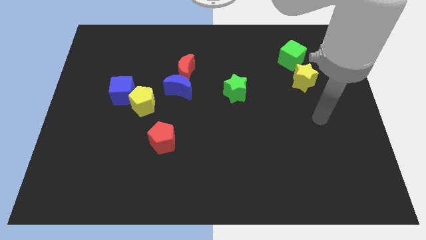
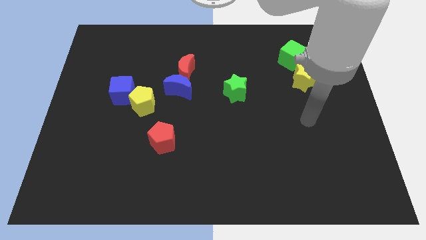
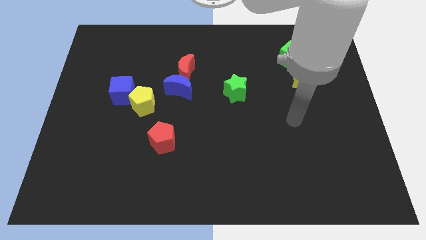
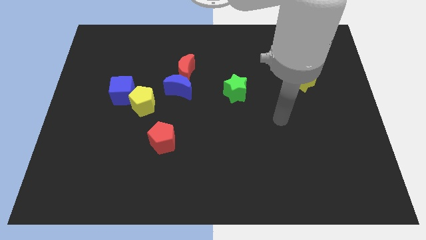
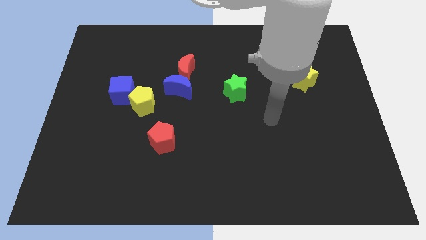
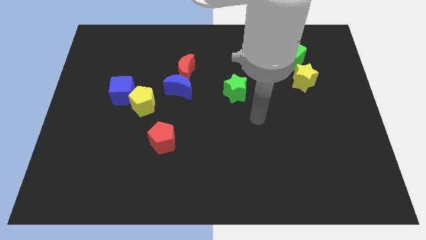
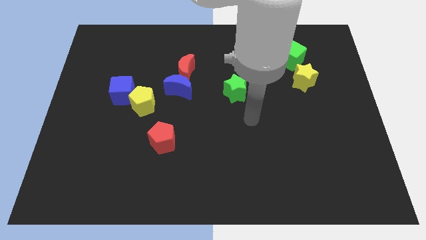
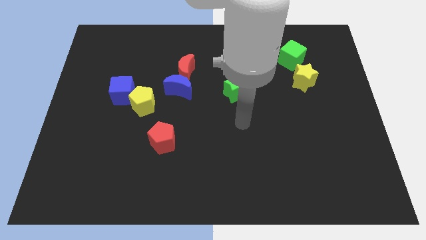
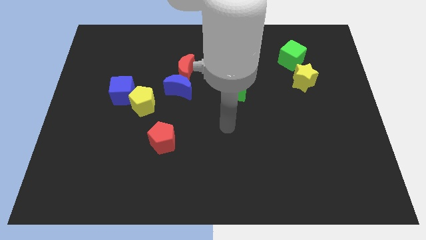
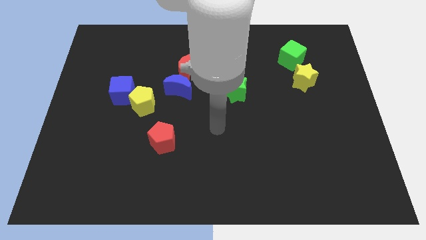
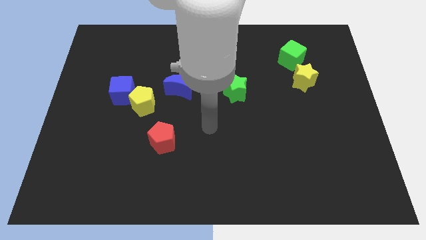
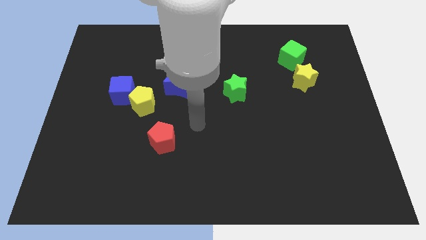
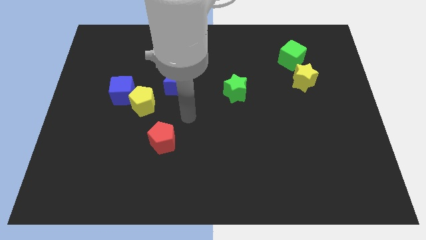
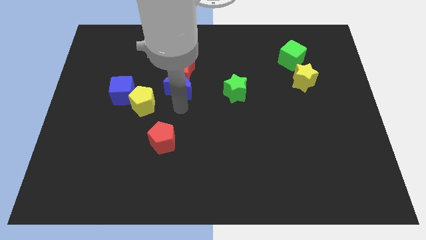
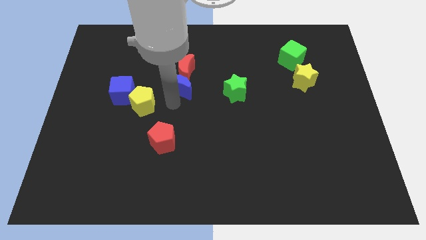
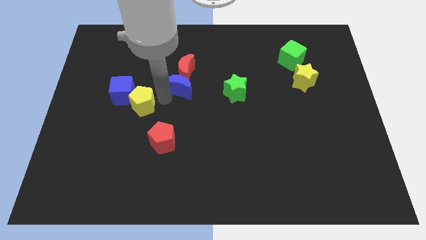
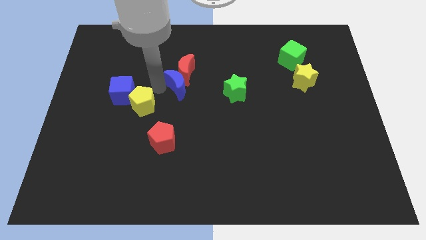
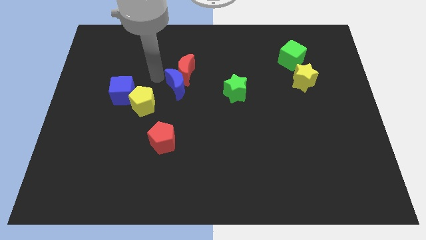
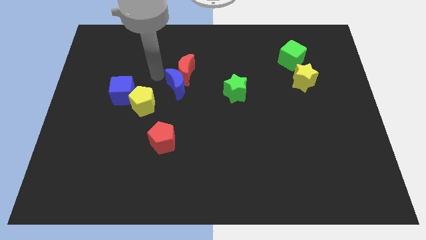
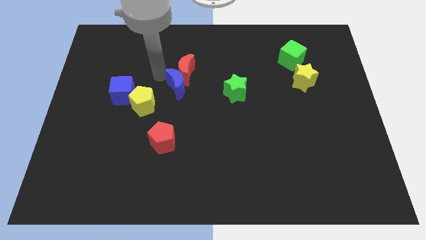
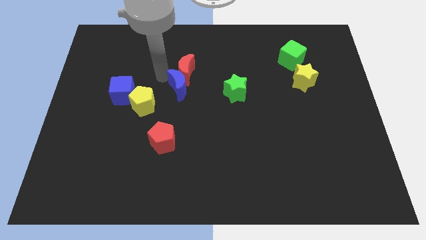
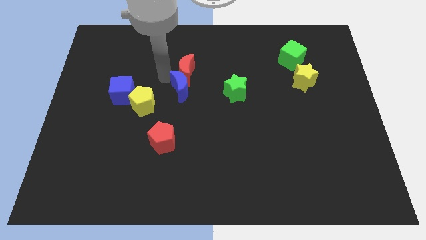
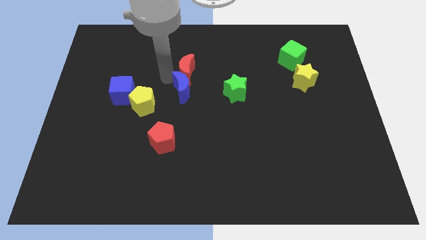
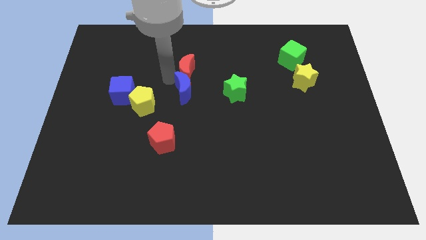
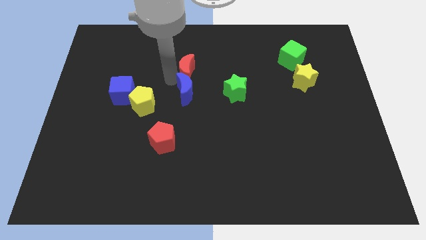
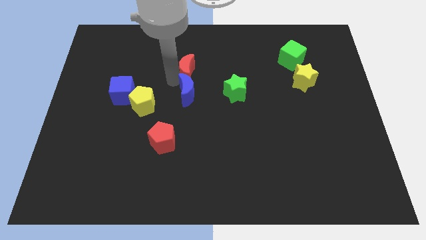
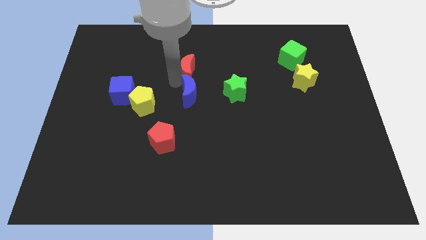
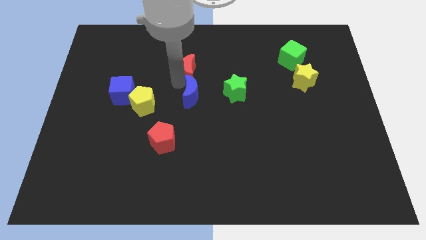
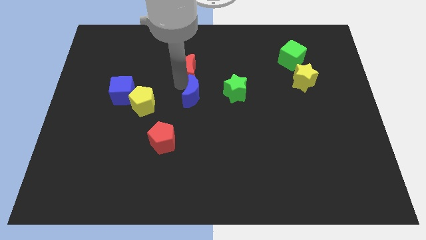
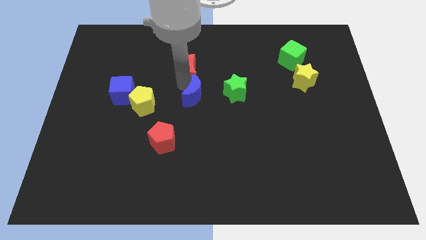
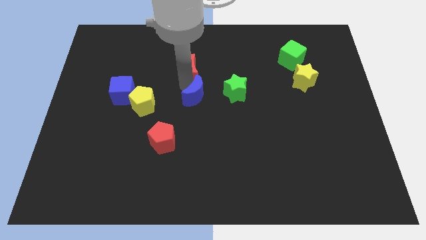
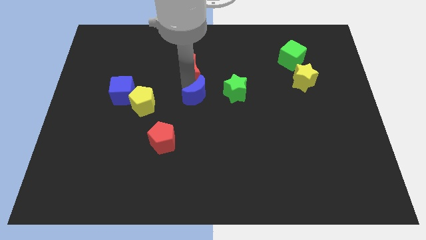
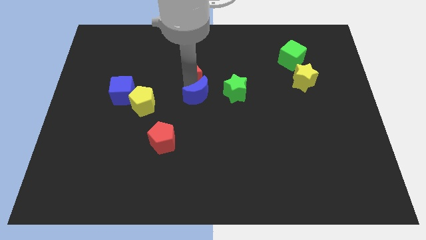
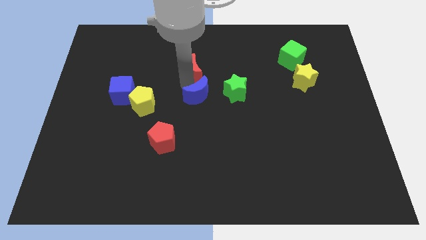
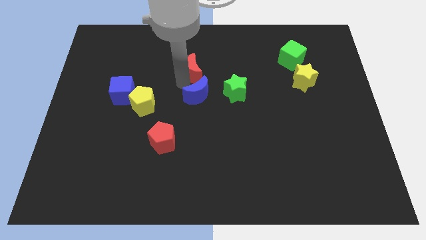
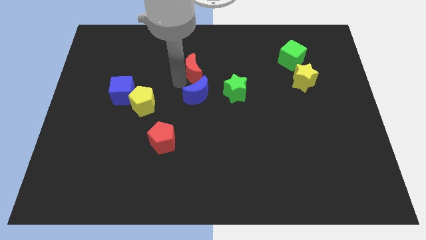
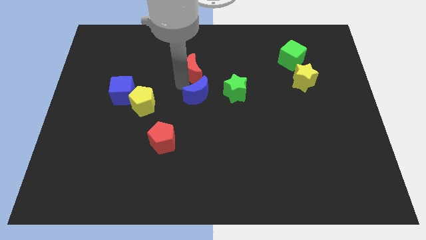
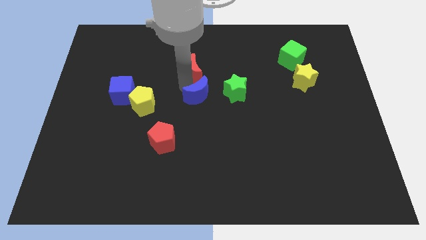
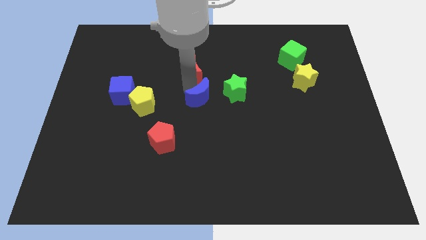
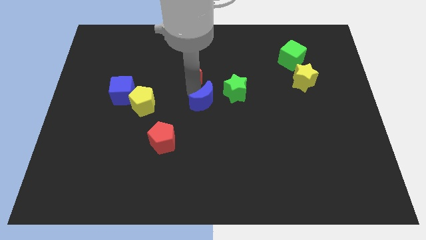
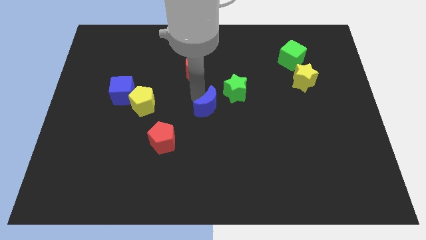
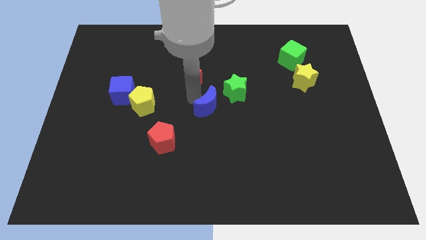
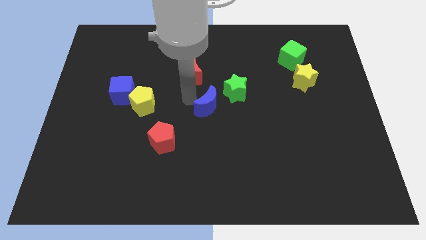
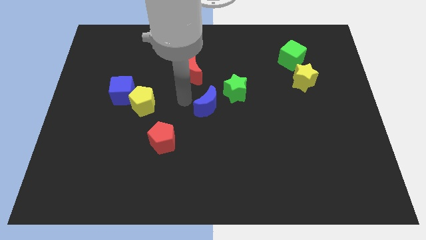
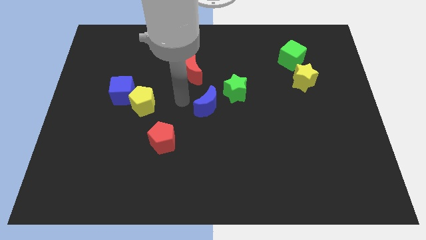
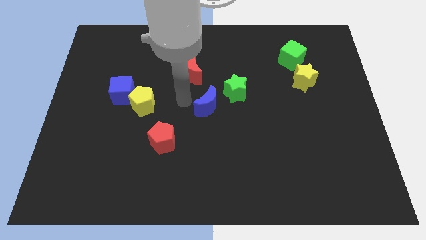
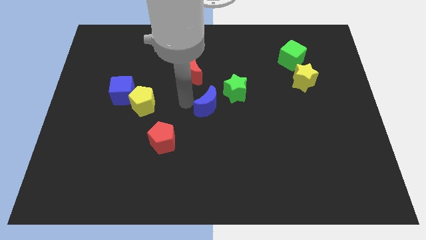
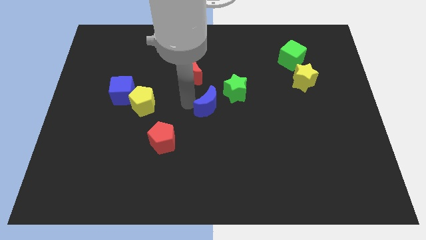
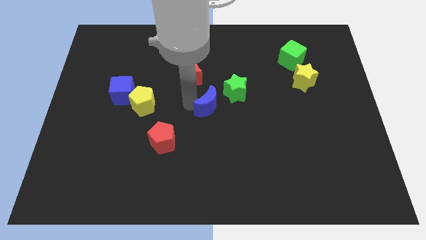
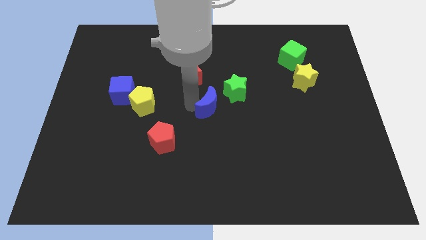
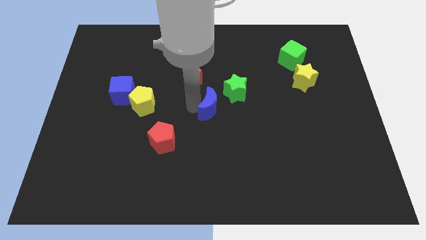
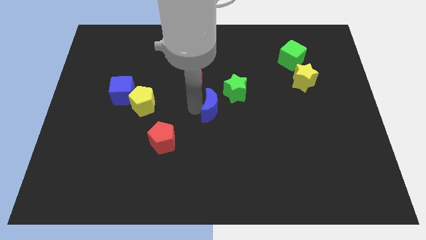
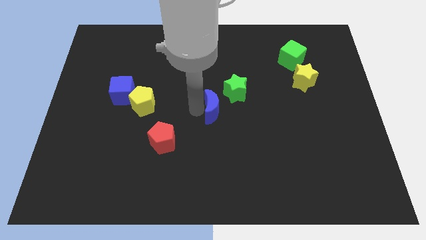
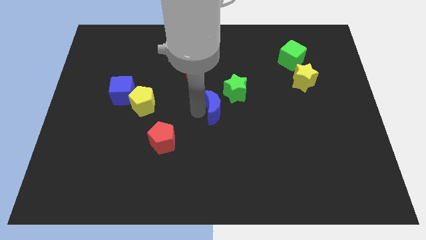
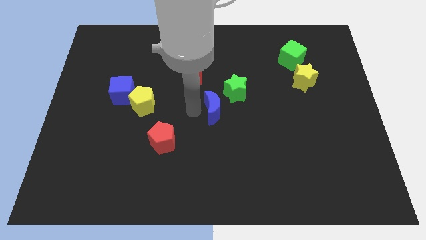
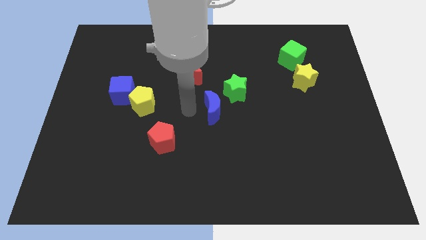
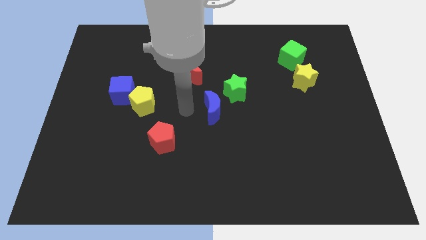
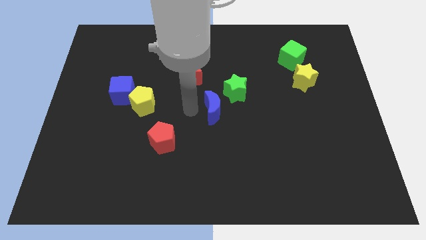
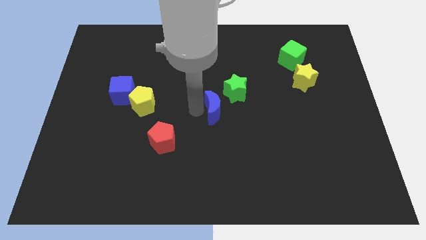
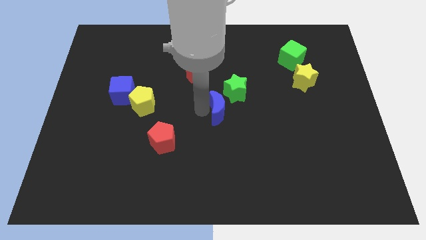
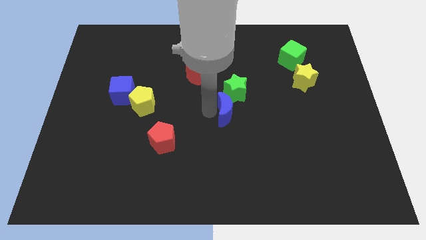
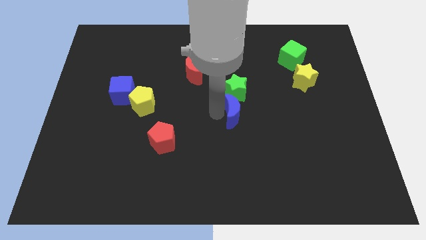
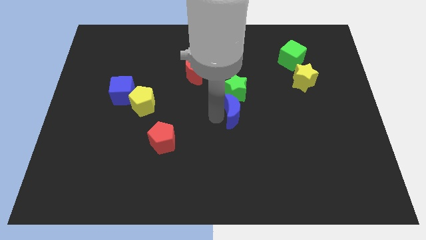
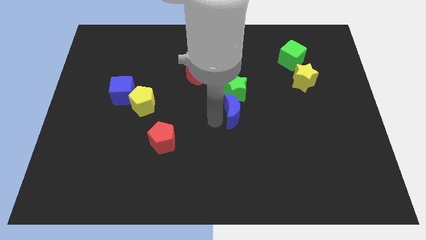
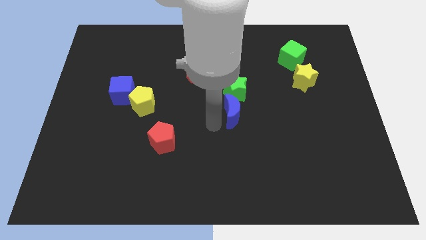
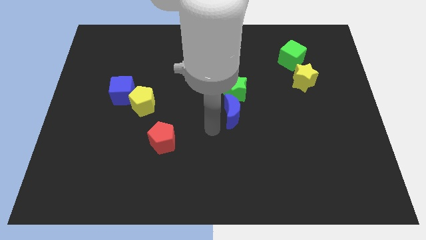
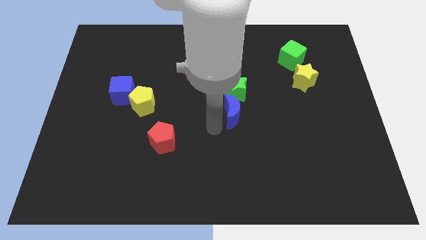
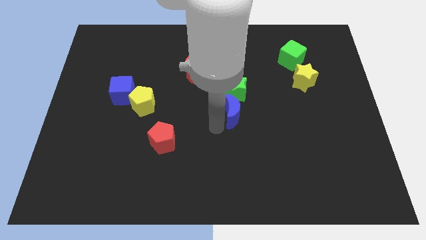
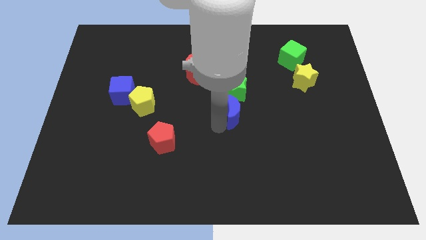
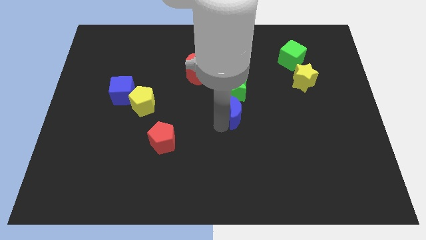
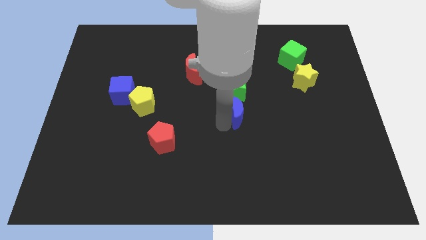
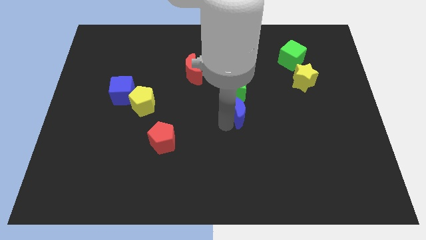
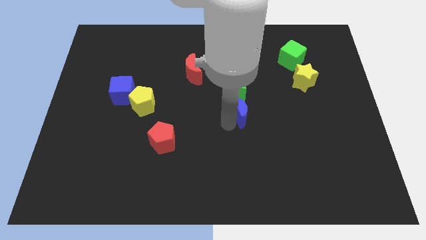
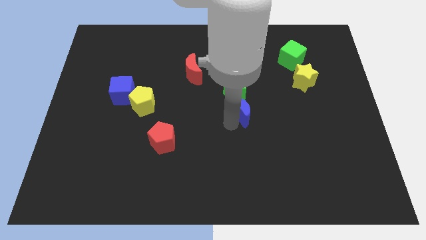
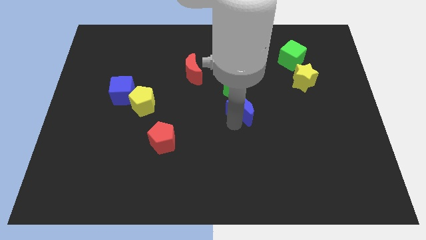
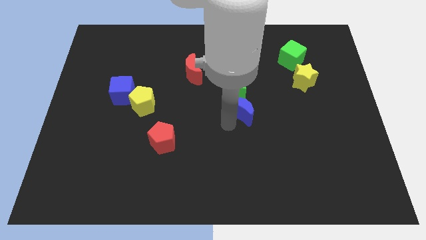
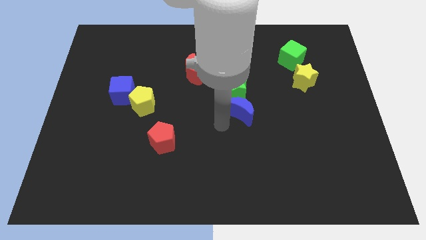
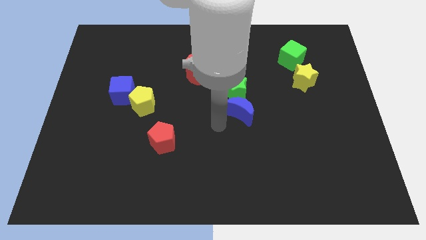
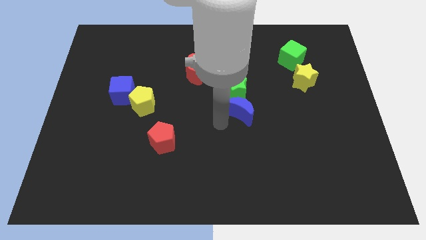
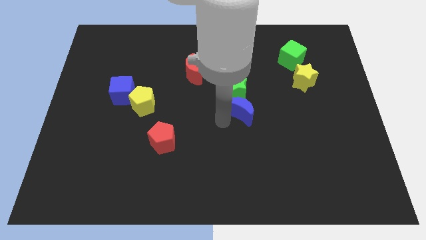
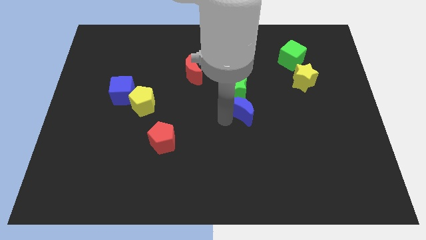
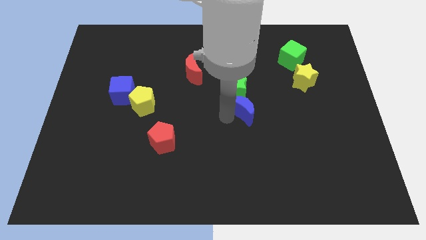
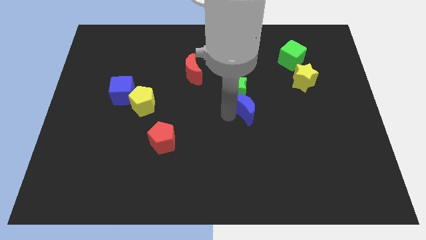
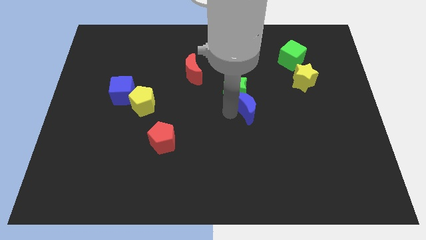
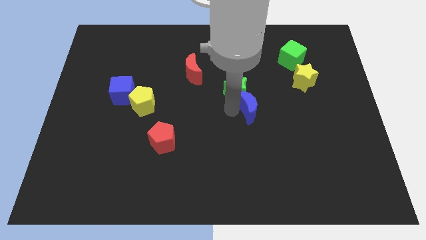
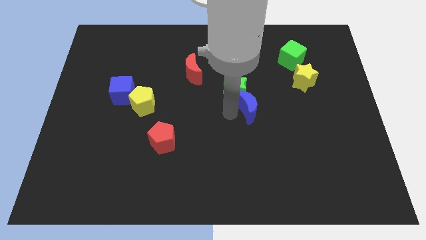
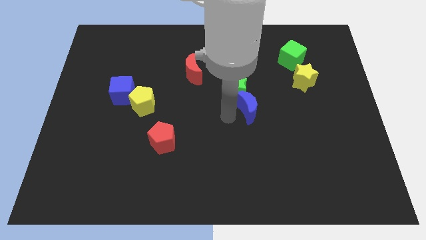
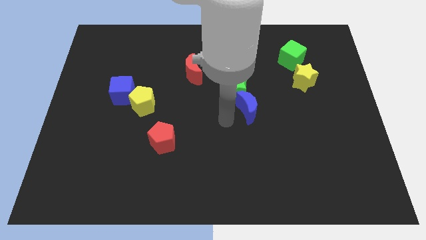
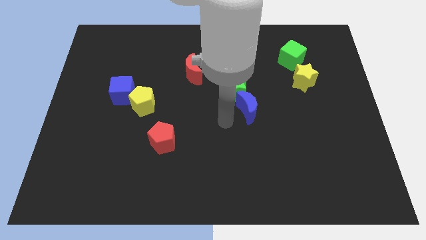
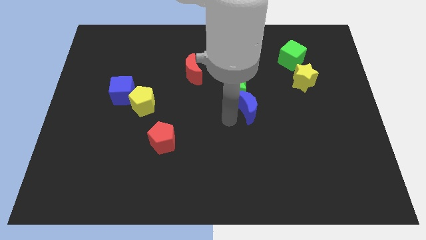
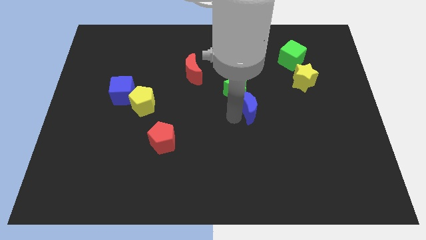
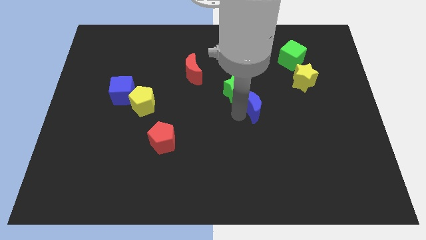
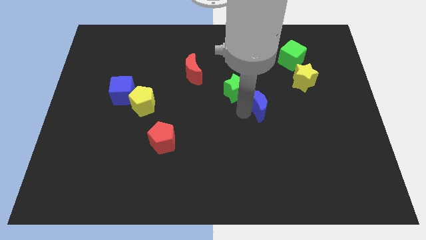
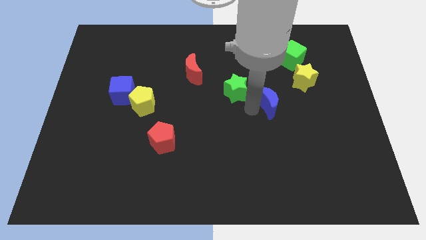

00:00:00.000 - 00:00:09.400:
put the blue moon to the bottom left side of the yellow star
